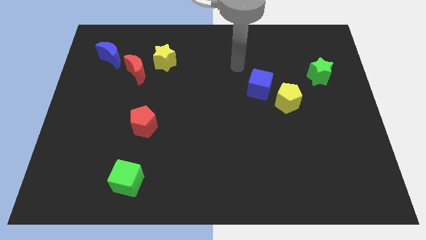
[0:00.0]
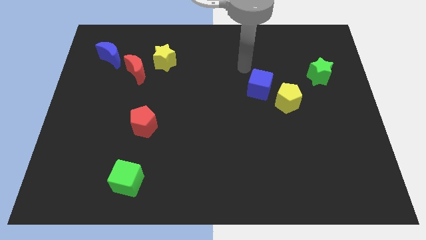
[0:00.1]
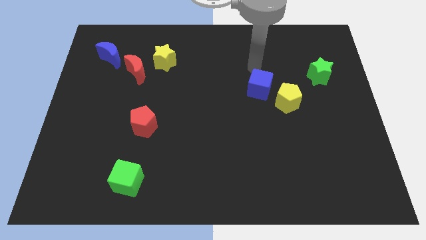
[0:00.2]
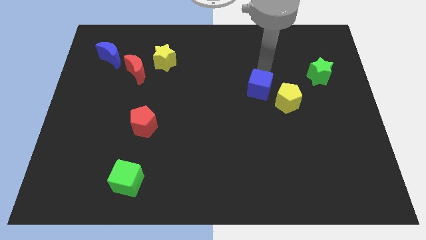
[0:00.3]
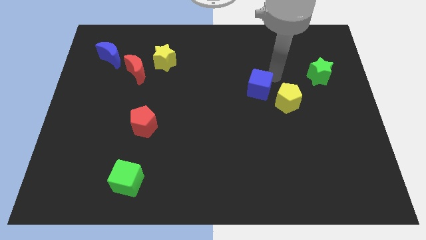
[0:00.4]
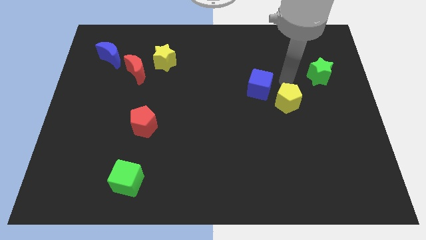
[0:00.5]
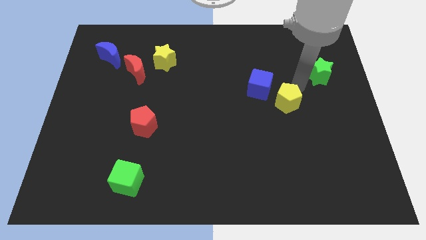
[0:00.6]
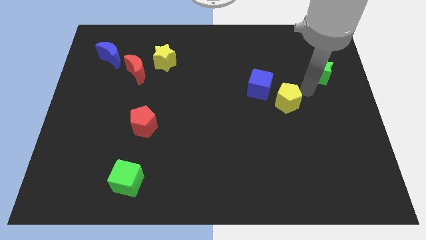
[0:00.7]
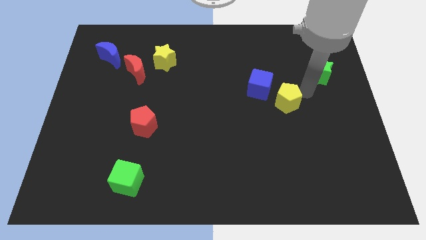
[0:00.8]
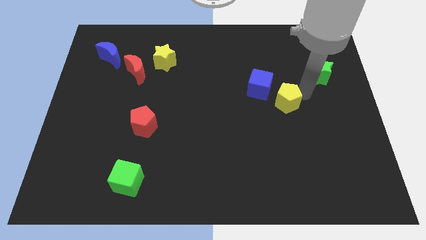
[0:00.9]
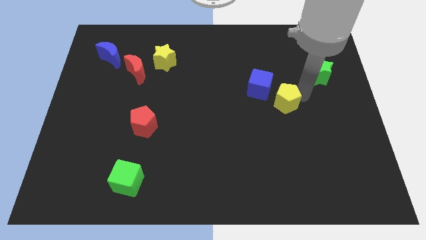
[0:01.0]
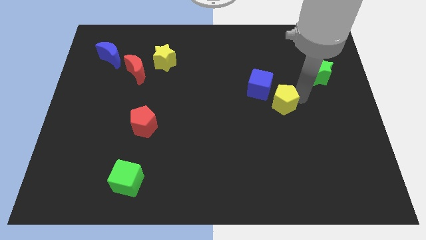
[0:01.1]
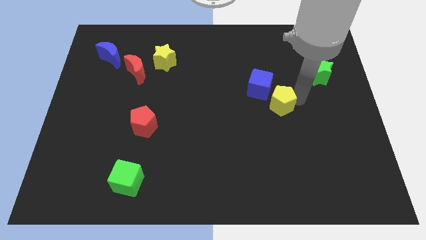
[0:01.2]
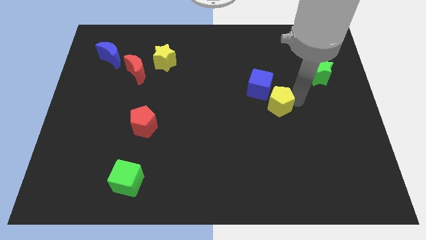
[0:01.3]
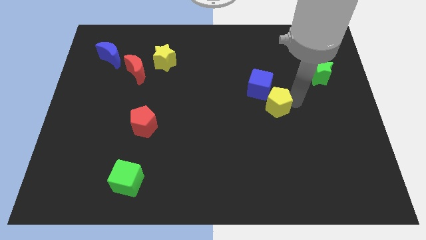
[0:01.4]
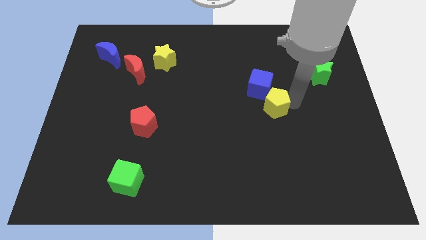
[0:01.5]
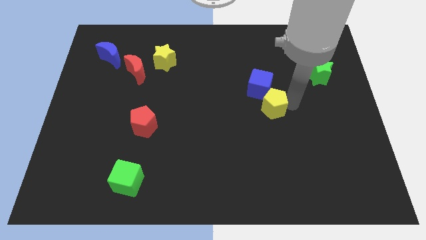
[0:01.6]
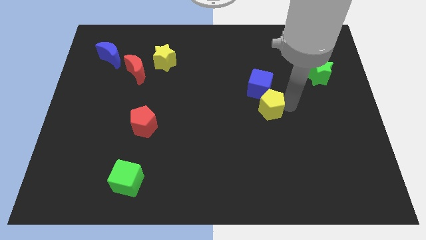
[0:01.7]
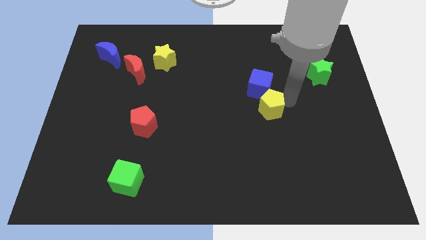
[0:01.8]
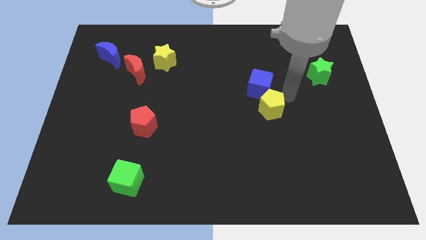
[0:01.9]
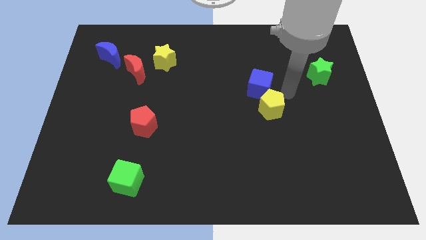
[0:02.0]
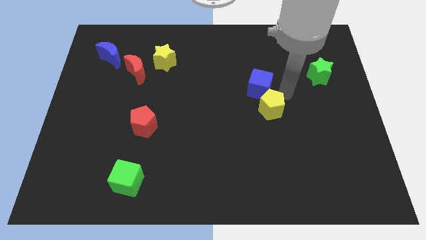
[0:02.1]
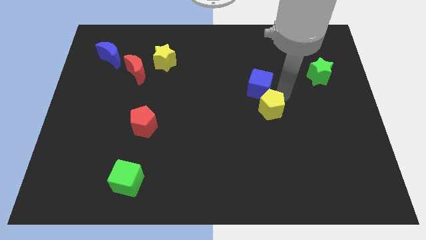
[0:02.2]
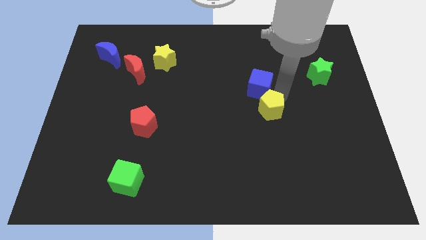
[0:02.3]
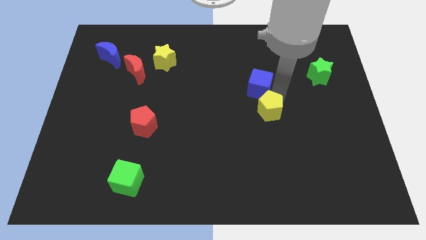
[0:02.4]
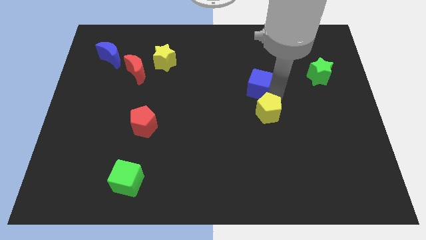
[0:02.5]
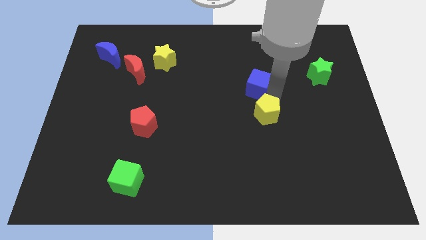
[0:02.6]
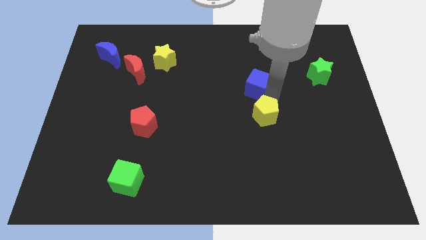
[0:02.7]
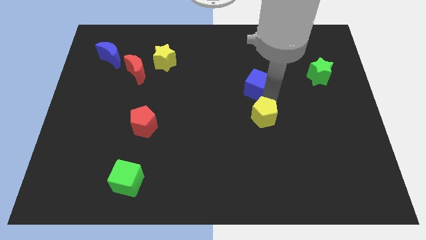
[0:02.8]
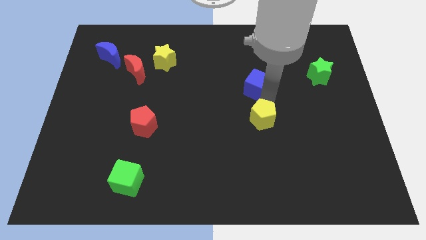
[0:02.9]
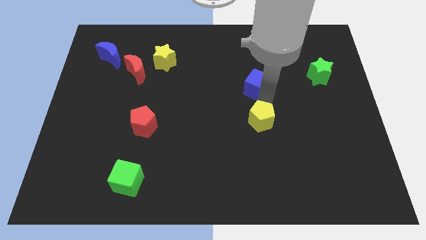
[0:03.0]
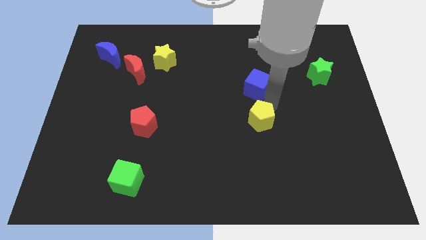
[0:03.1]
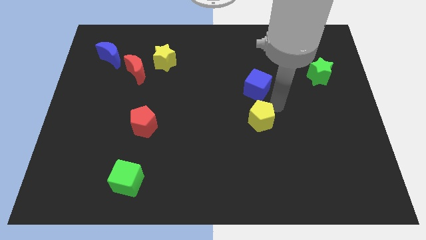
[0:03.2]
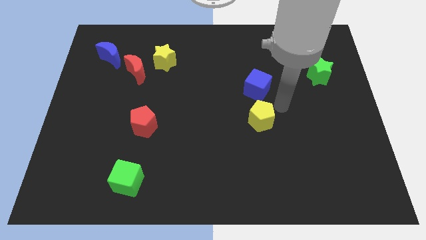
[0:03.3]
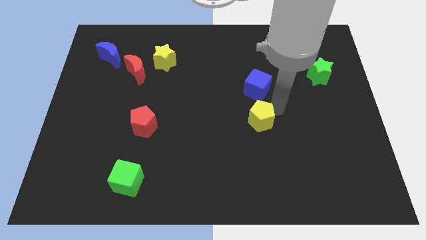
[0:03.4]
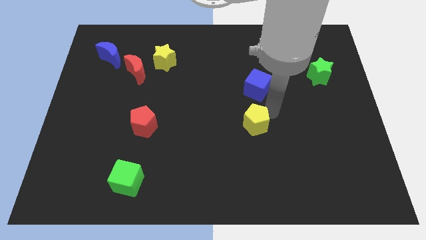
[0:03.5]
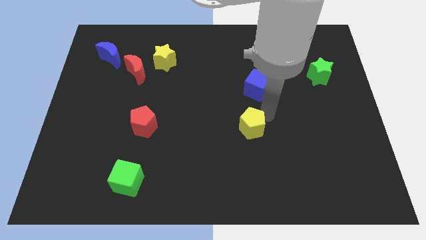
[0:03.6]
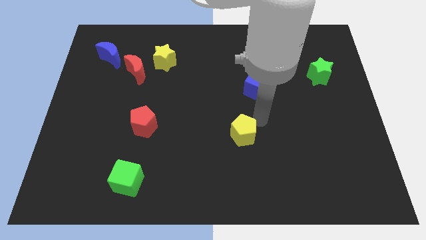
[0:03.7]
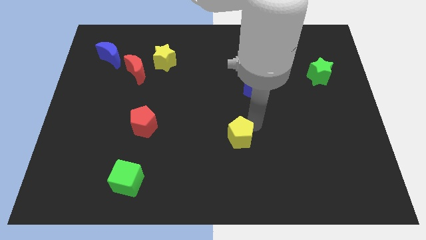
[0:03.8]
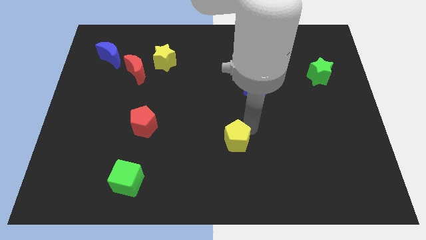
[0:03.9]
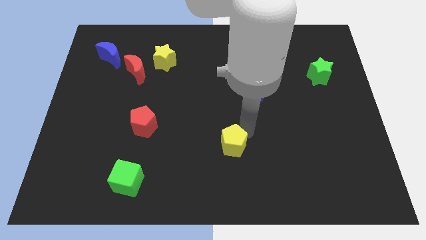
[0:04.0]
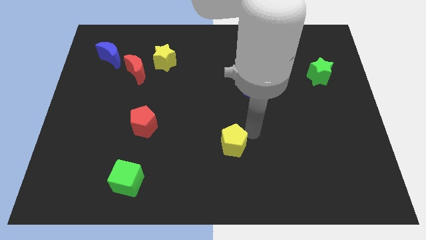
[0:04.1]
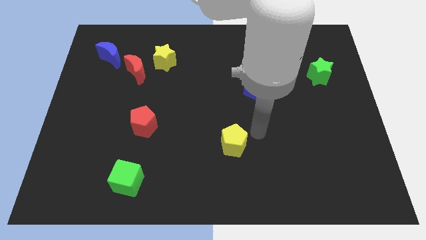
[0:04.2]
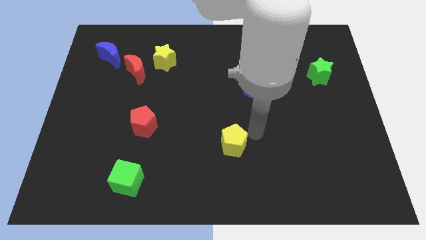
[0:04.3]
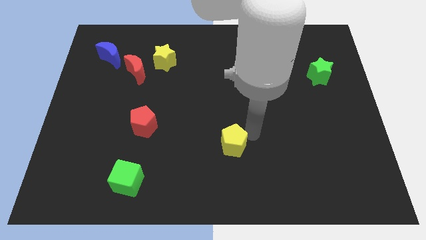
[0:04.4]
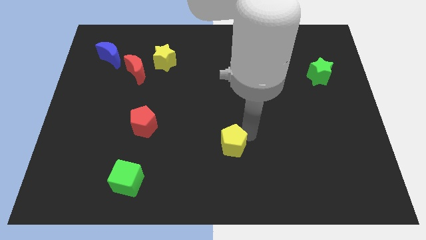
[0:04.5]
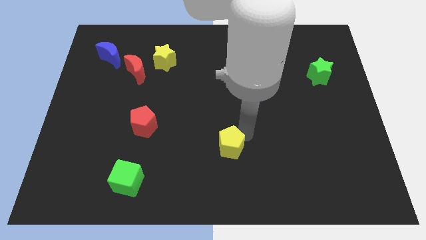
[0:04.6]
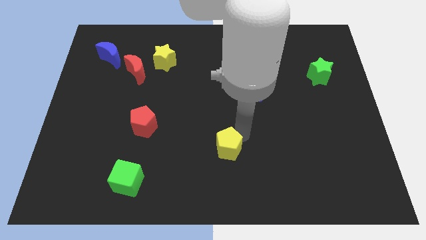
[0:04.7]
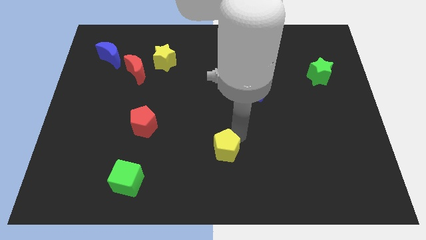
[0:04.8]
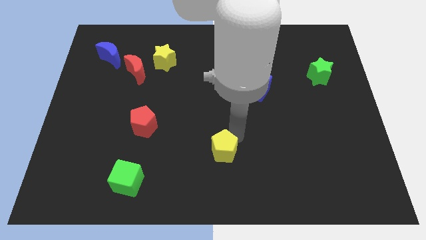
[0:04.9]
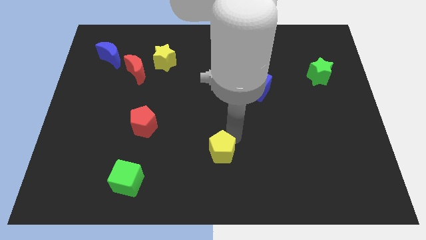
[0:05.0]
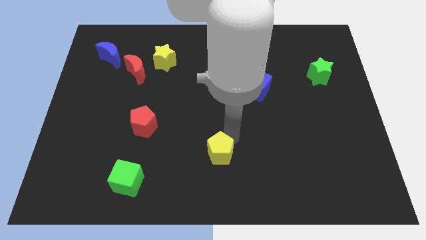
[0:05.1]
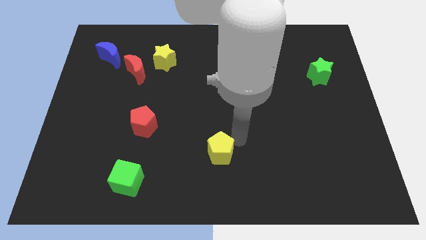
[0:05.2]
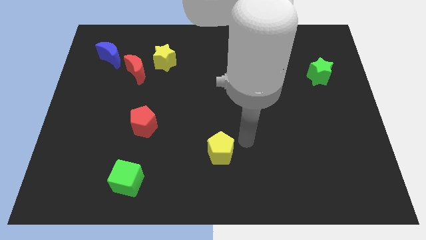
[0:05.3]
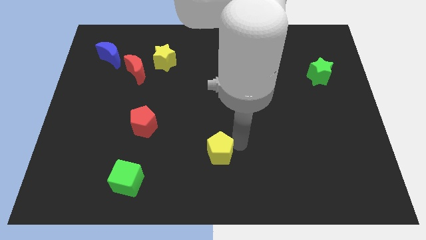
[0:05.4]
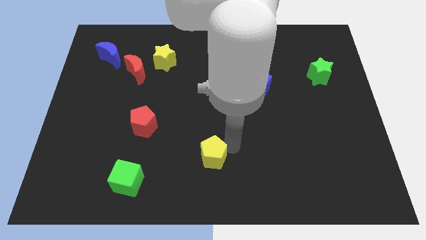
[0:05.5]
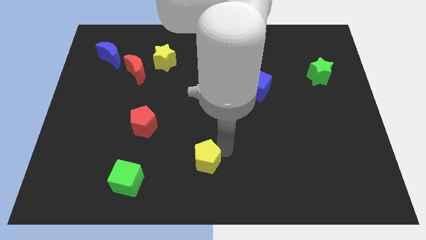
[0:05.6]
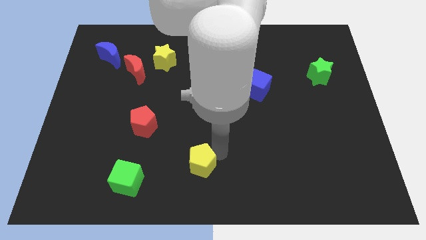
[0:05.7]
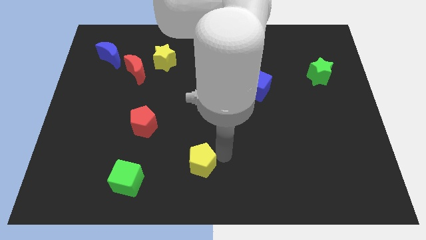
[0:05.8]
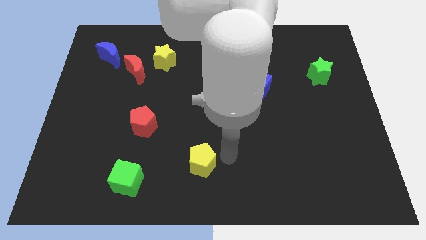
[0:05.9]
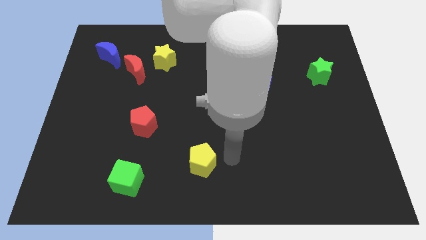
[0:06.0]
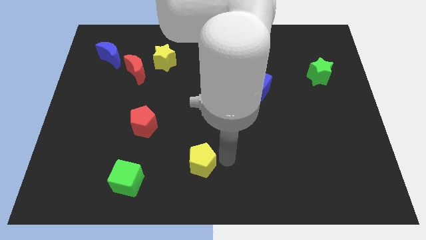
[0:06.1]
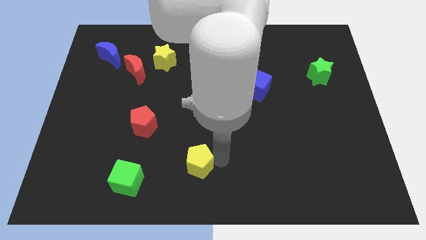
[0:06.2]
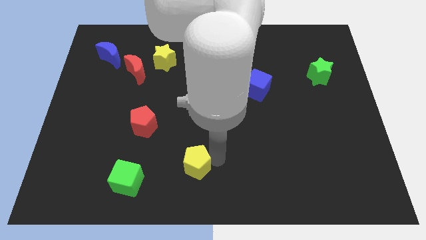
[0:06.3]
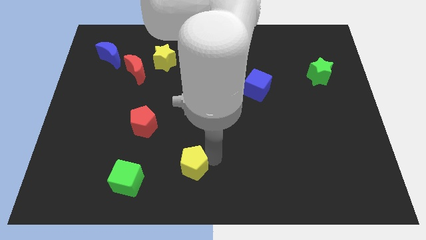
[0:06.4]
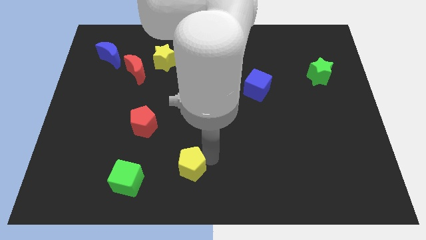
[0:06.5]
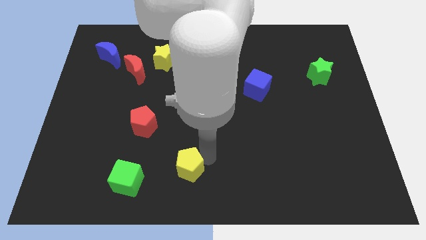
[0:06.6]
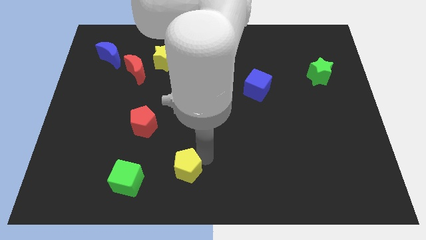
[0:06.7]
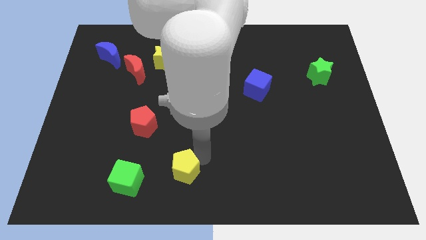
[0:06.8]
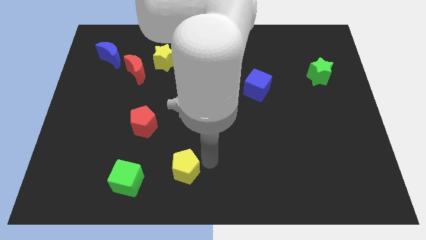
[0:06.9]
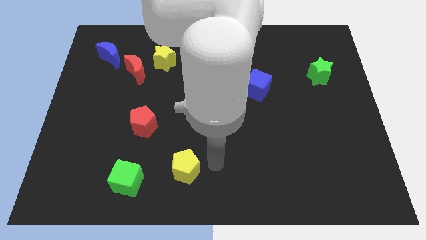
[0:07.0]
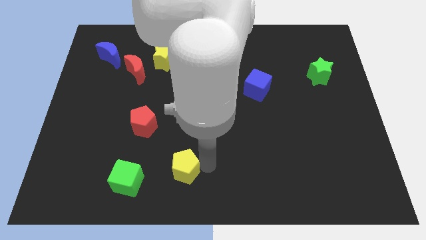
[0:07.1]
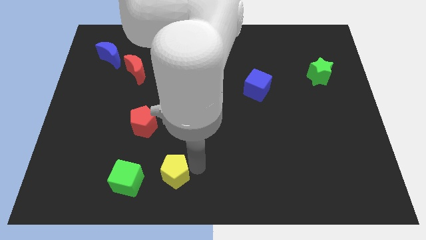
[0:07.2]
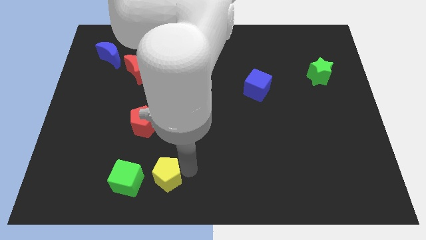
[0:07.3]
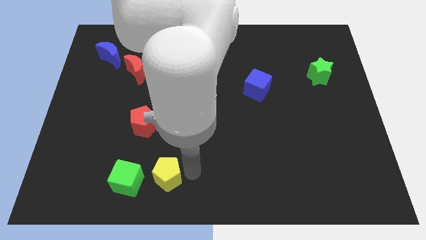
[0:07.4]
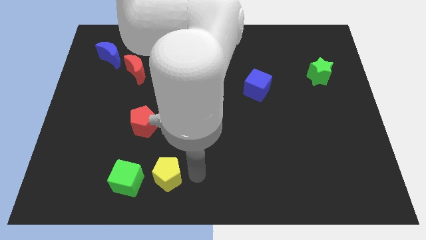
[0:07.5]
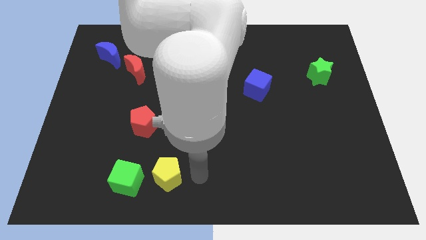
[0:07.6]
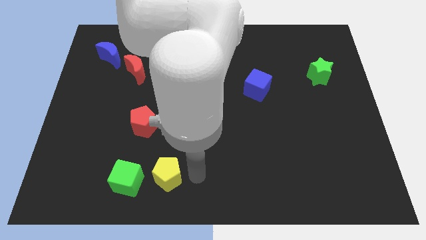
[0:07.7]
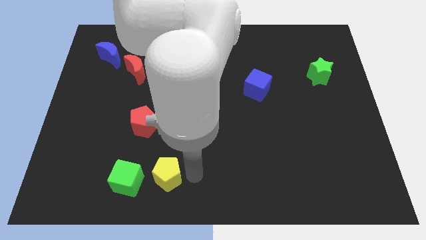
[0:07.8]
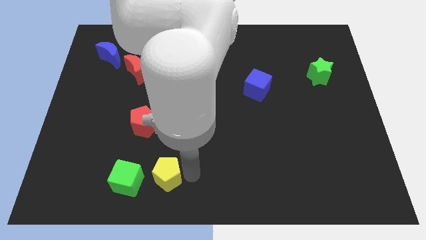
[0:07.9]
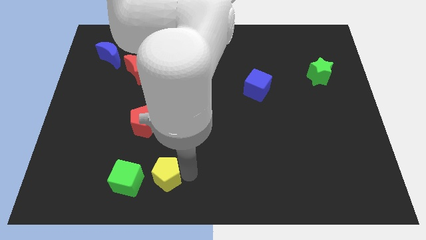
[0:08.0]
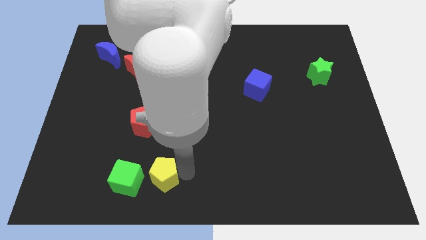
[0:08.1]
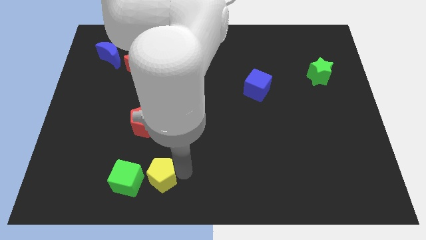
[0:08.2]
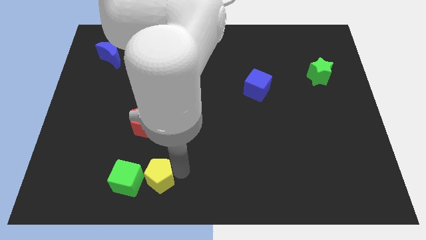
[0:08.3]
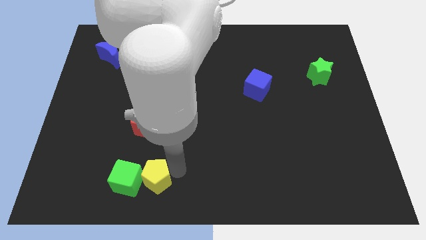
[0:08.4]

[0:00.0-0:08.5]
move the yellow pentagon to the green cube
